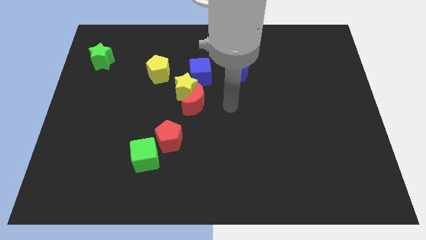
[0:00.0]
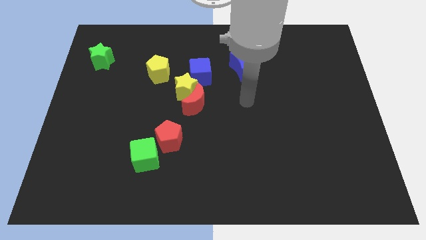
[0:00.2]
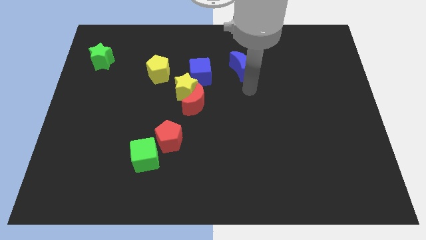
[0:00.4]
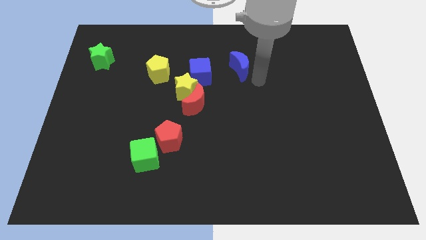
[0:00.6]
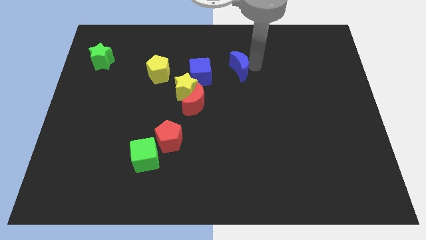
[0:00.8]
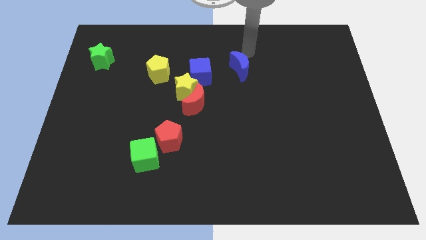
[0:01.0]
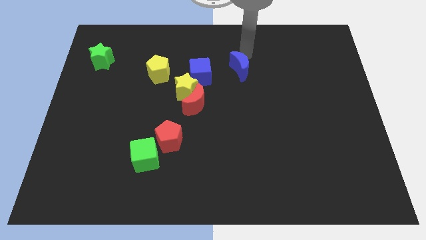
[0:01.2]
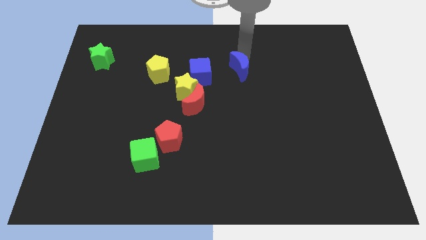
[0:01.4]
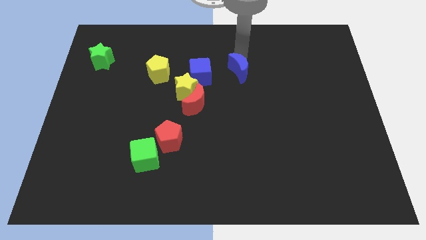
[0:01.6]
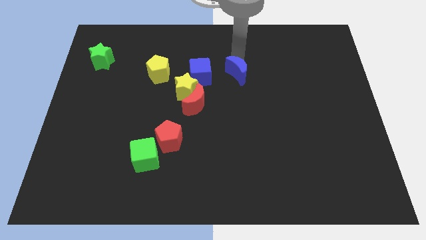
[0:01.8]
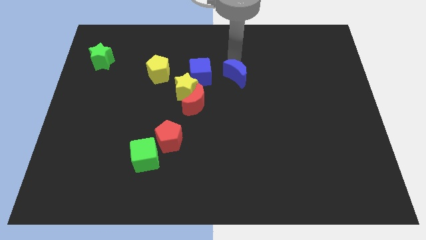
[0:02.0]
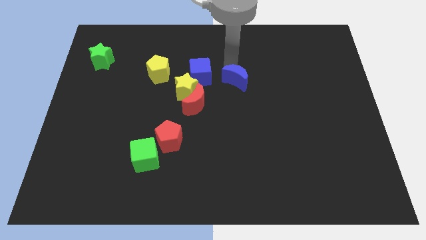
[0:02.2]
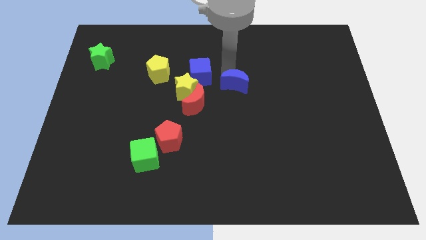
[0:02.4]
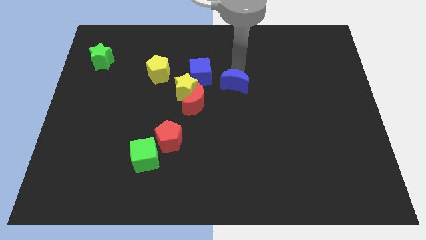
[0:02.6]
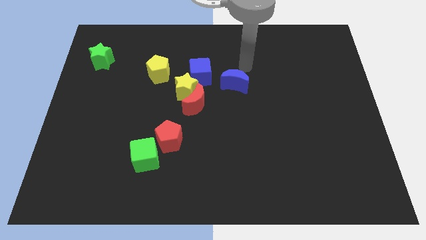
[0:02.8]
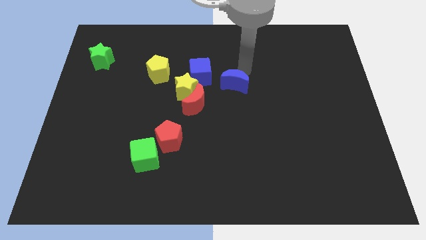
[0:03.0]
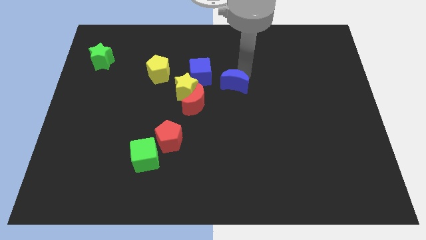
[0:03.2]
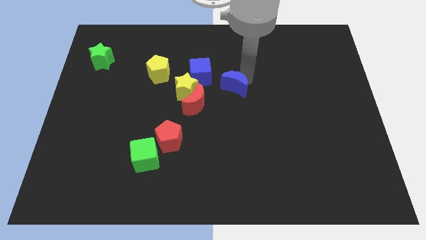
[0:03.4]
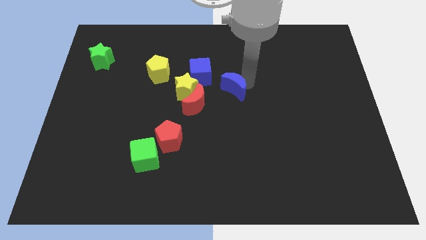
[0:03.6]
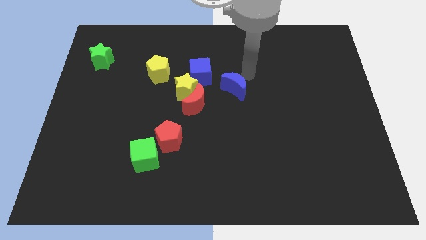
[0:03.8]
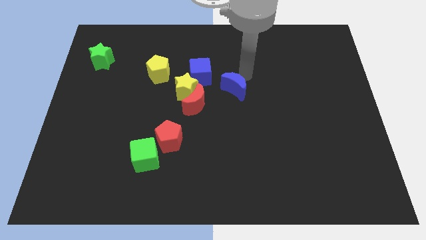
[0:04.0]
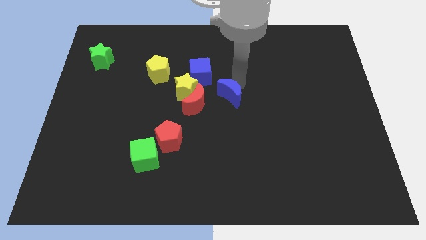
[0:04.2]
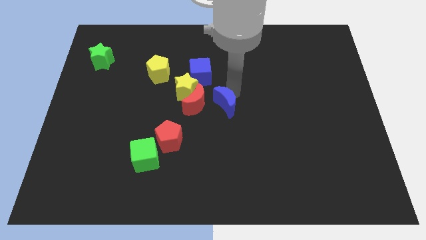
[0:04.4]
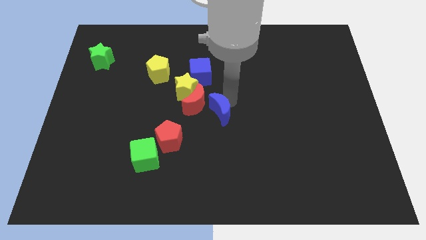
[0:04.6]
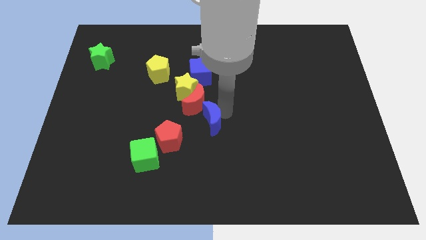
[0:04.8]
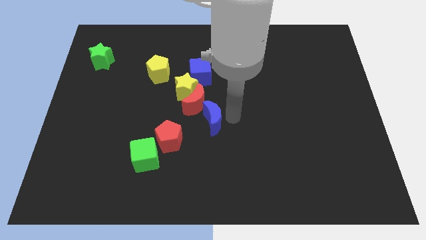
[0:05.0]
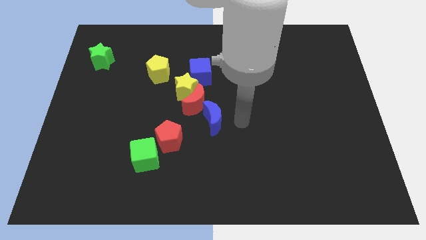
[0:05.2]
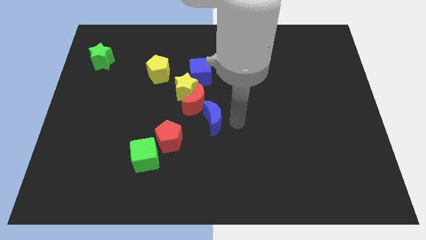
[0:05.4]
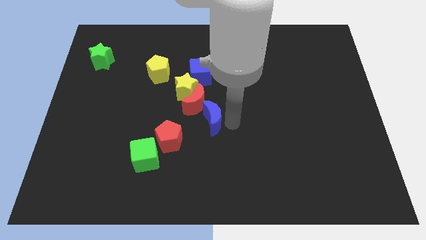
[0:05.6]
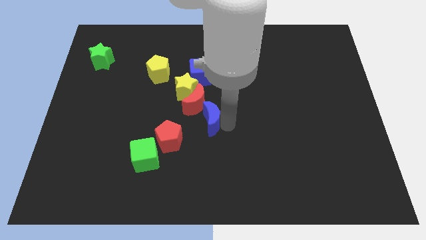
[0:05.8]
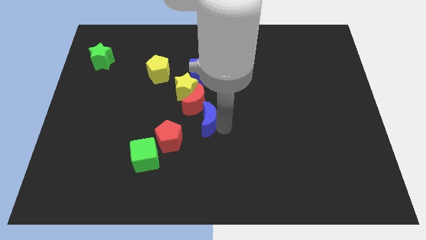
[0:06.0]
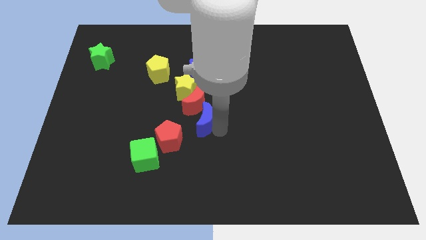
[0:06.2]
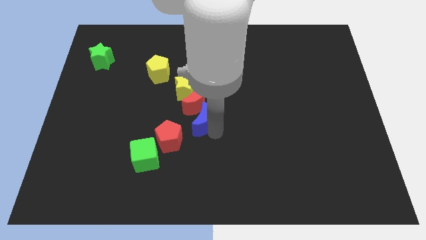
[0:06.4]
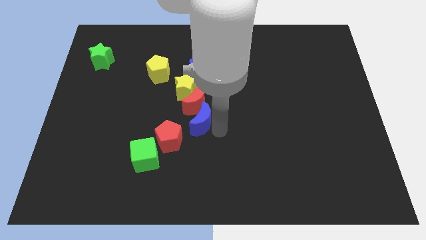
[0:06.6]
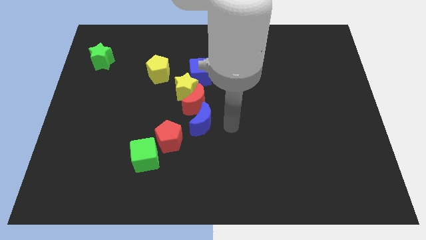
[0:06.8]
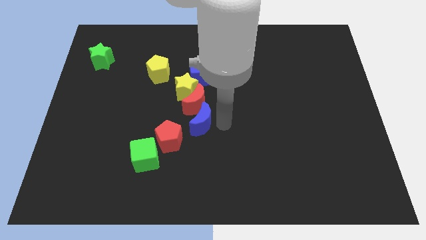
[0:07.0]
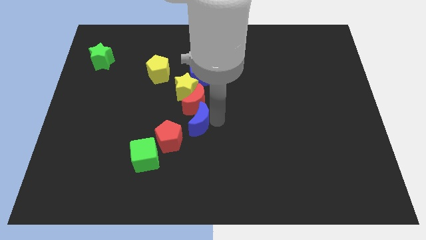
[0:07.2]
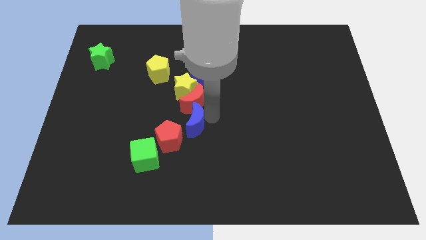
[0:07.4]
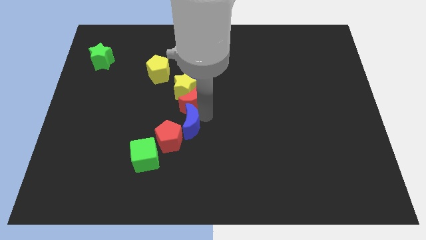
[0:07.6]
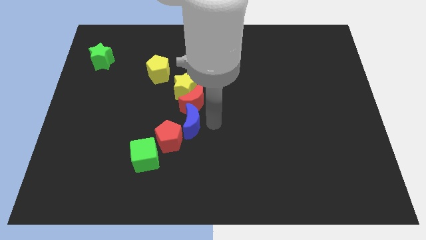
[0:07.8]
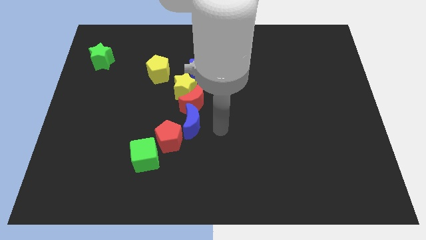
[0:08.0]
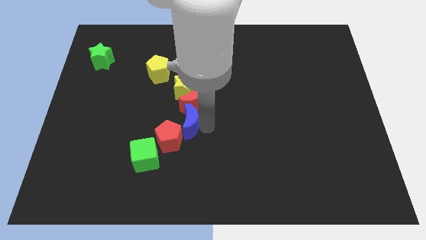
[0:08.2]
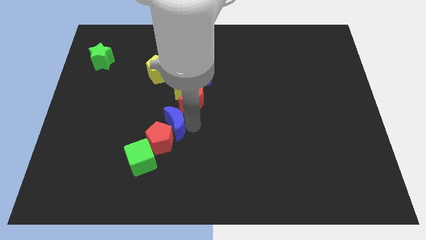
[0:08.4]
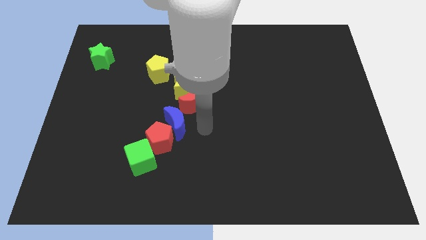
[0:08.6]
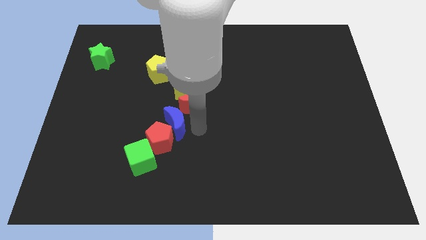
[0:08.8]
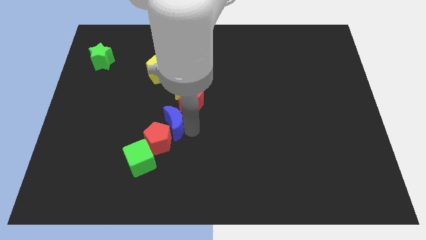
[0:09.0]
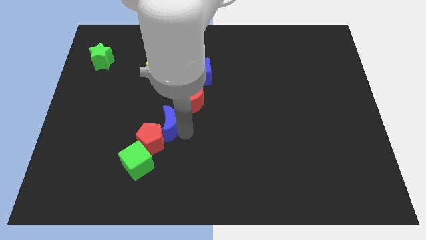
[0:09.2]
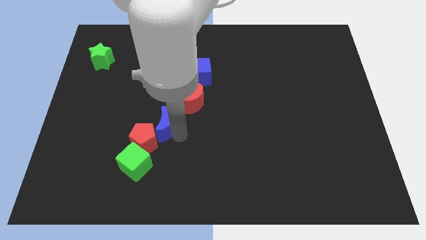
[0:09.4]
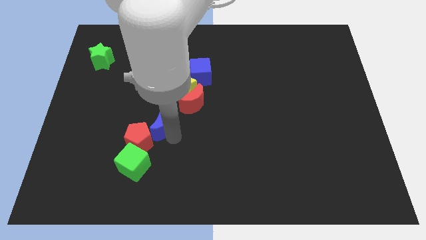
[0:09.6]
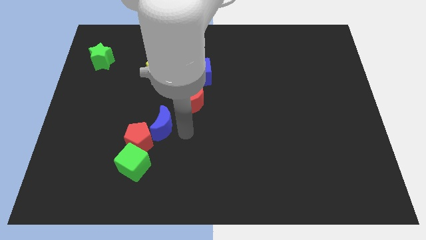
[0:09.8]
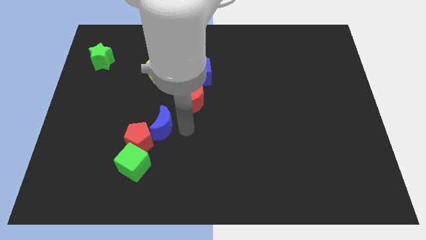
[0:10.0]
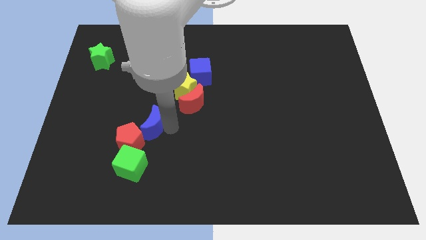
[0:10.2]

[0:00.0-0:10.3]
push the blue moon to the top side of the green cube

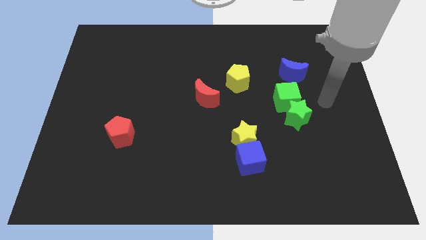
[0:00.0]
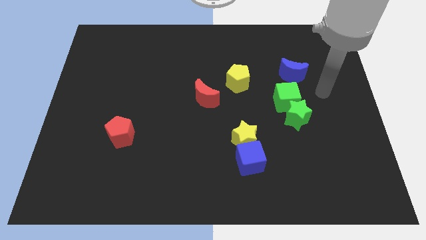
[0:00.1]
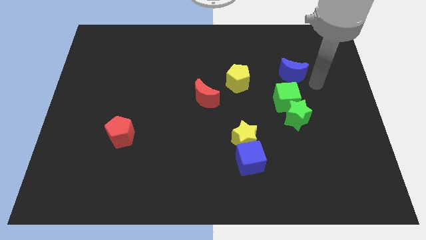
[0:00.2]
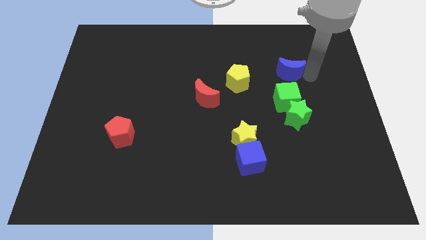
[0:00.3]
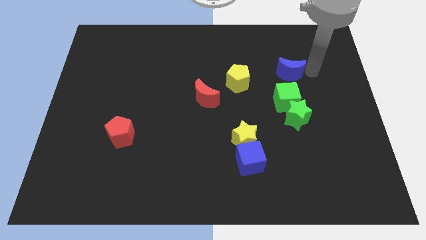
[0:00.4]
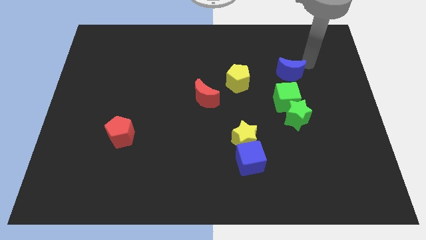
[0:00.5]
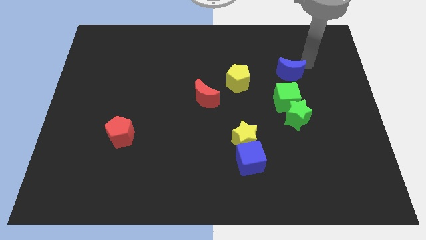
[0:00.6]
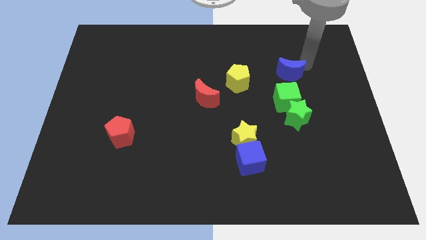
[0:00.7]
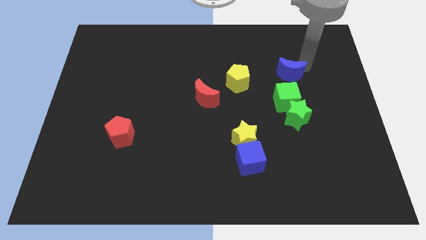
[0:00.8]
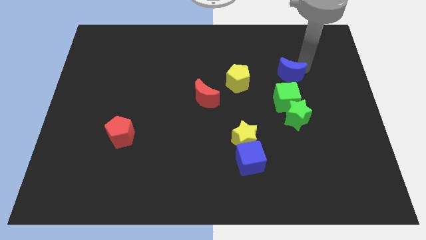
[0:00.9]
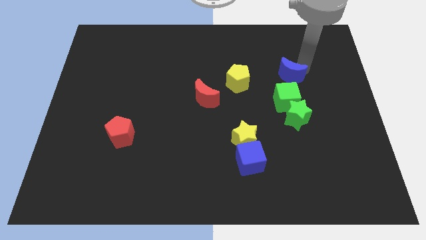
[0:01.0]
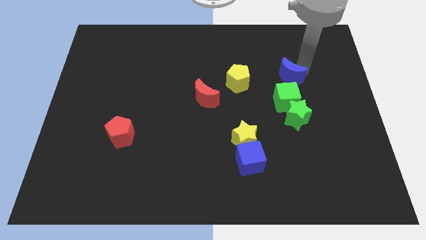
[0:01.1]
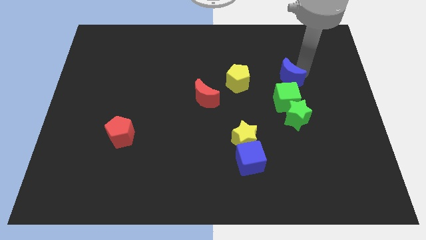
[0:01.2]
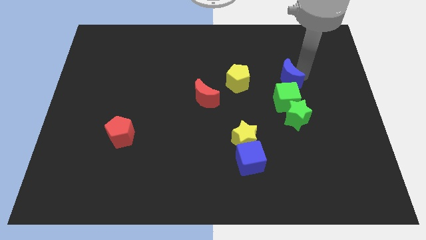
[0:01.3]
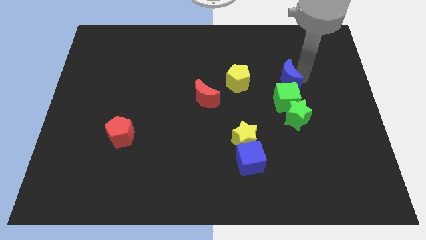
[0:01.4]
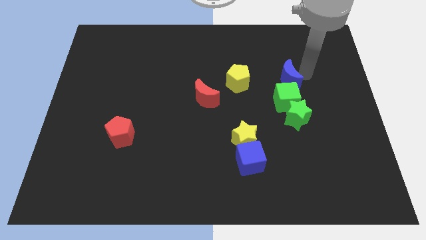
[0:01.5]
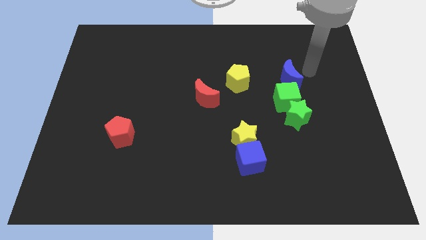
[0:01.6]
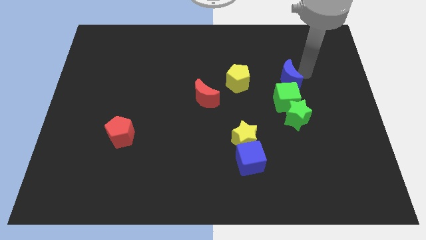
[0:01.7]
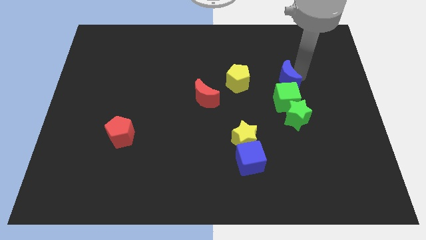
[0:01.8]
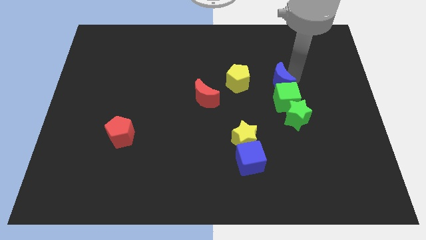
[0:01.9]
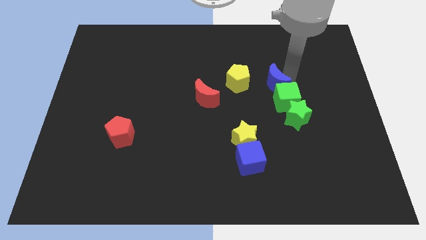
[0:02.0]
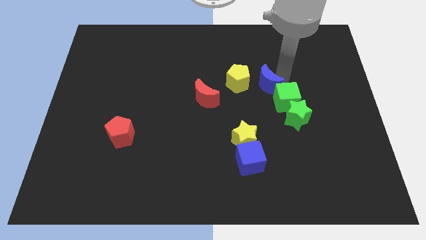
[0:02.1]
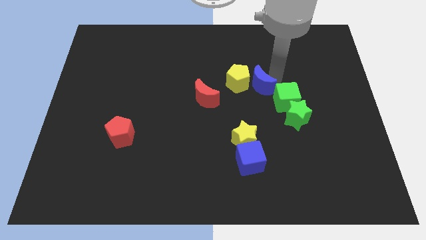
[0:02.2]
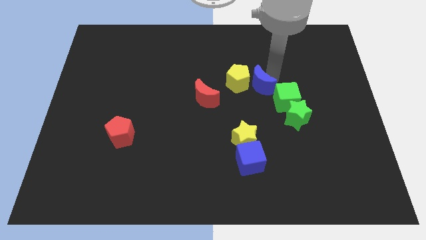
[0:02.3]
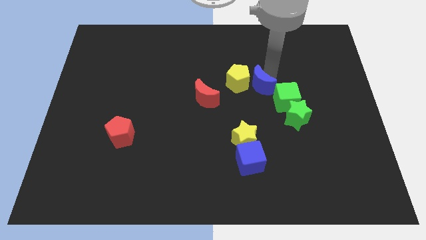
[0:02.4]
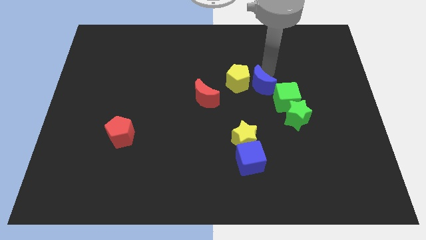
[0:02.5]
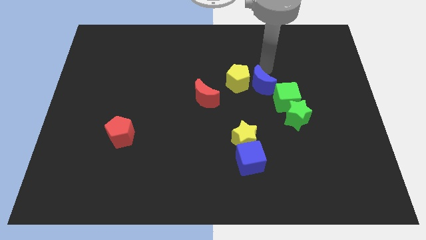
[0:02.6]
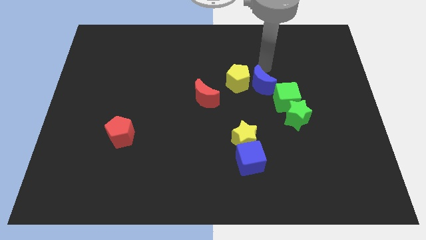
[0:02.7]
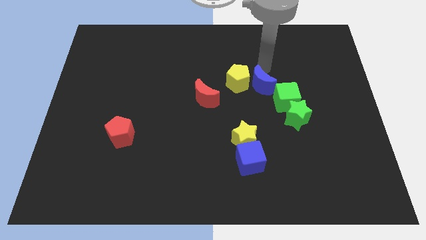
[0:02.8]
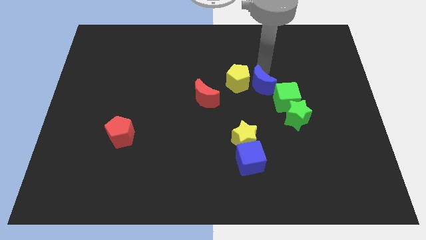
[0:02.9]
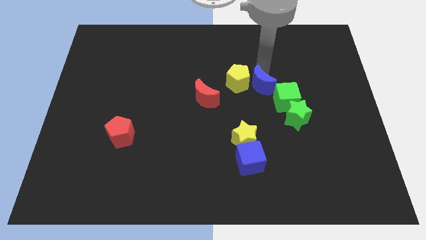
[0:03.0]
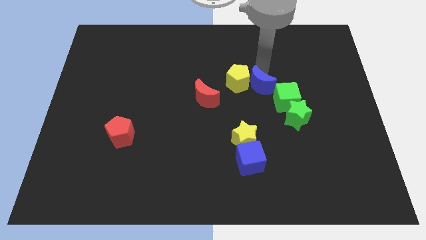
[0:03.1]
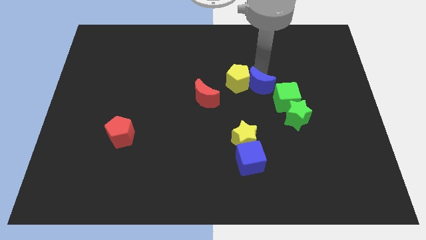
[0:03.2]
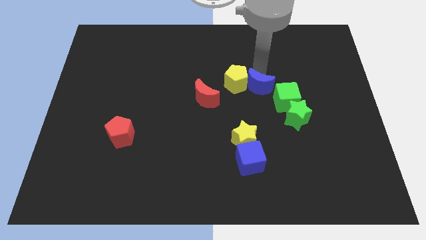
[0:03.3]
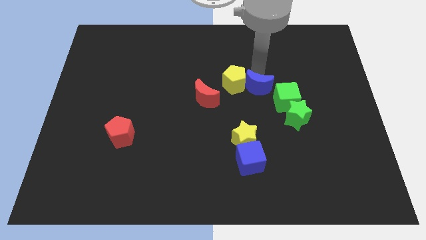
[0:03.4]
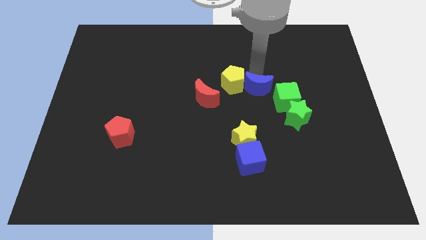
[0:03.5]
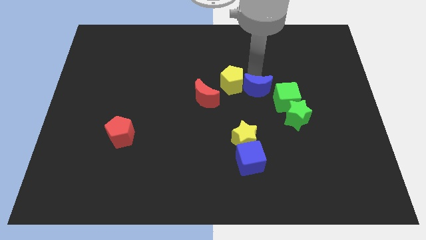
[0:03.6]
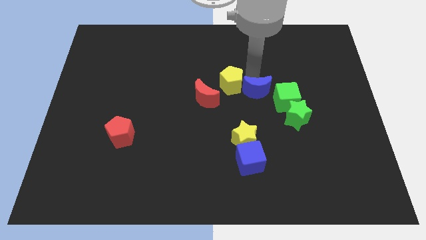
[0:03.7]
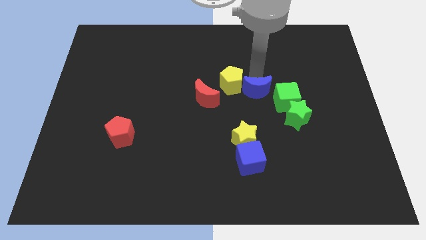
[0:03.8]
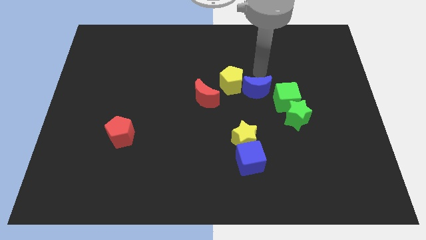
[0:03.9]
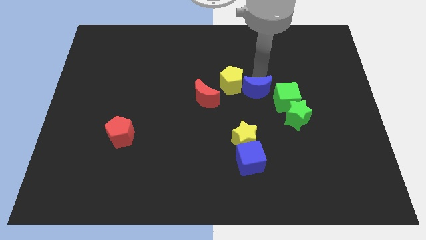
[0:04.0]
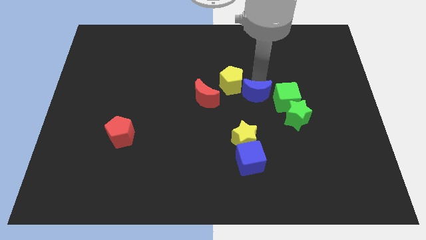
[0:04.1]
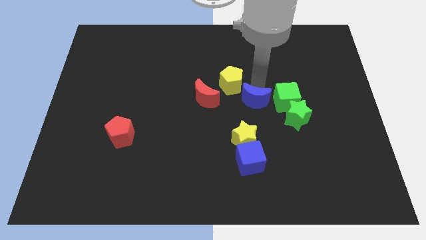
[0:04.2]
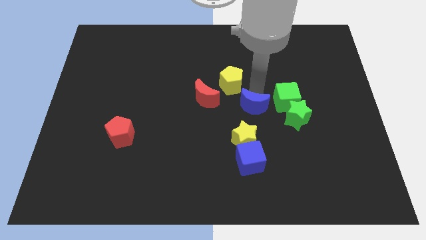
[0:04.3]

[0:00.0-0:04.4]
move the blue moon to the left of the green star
